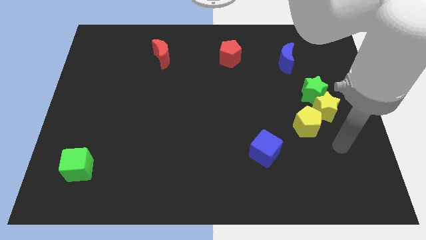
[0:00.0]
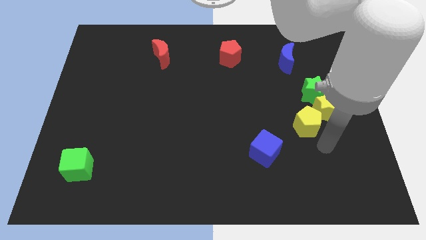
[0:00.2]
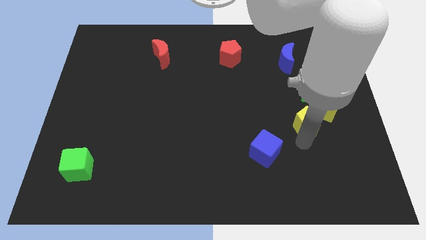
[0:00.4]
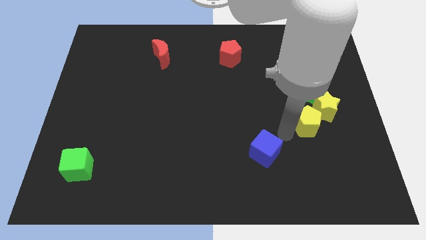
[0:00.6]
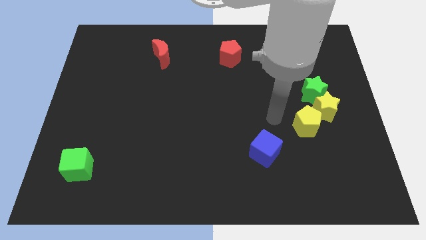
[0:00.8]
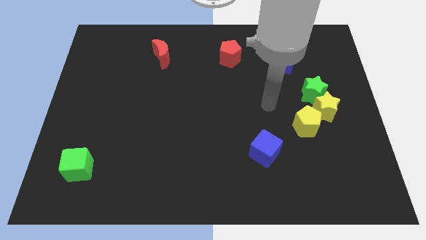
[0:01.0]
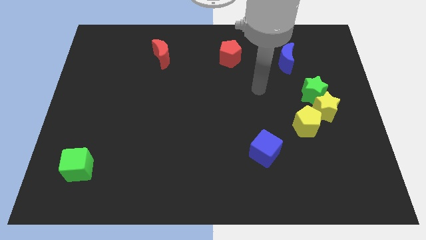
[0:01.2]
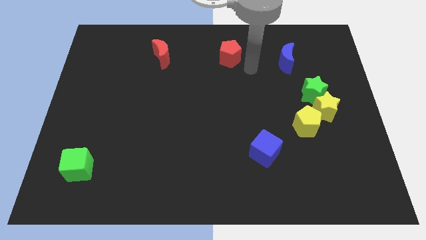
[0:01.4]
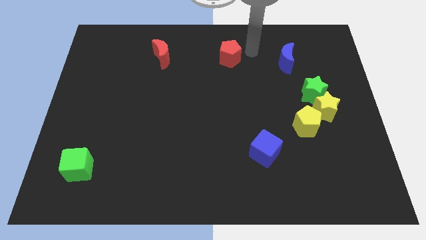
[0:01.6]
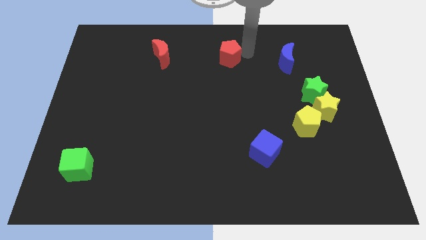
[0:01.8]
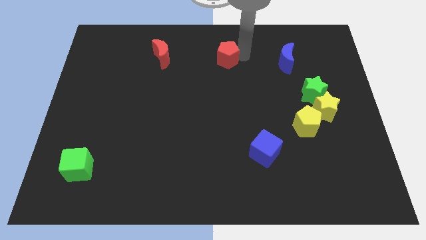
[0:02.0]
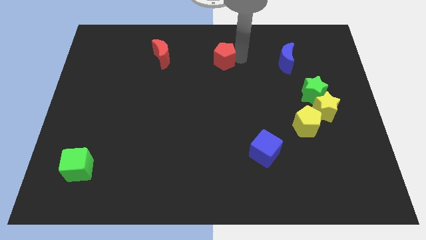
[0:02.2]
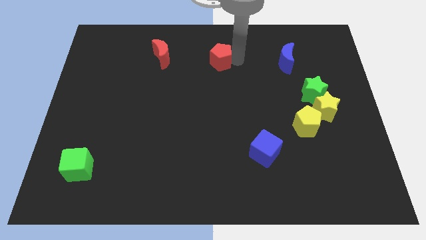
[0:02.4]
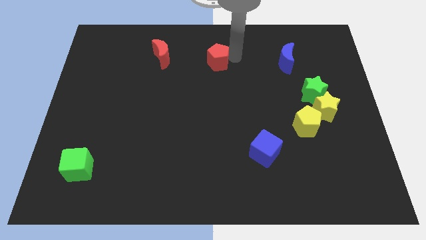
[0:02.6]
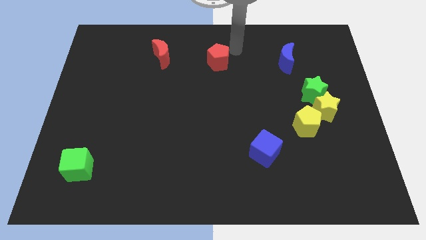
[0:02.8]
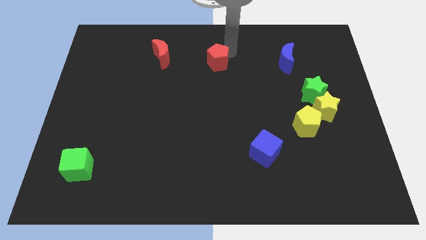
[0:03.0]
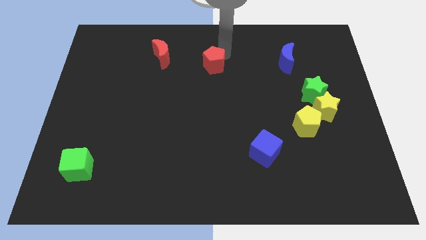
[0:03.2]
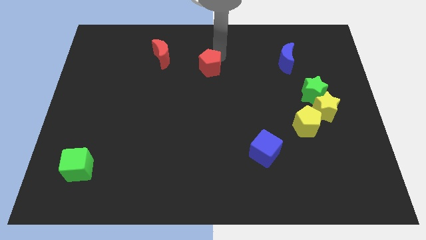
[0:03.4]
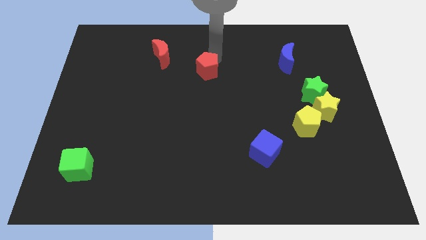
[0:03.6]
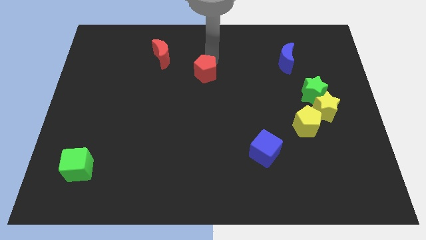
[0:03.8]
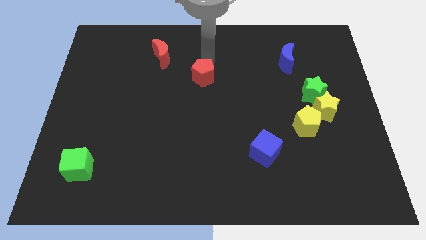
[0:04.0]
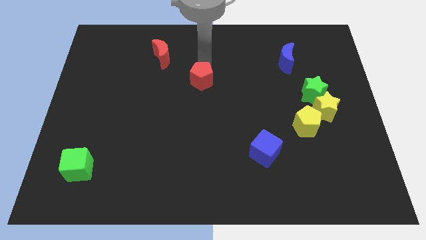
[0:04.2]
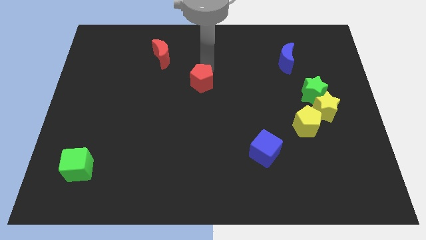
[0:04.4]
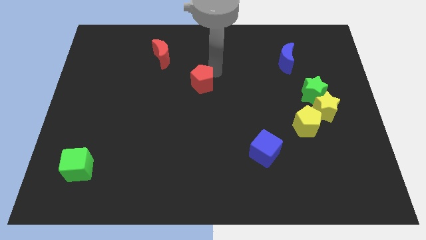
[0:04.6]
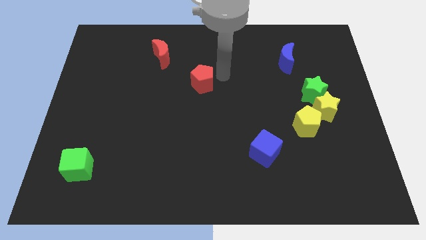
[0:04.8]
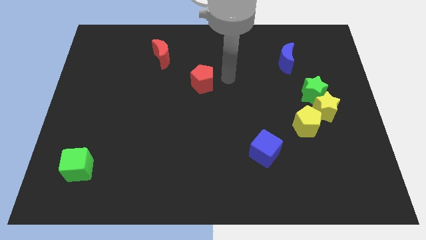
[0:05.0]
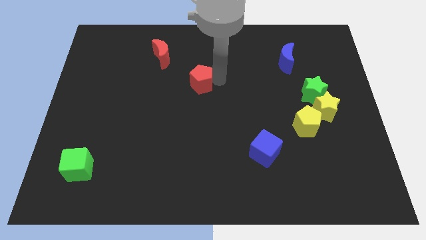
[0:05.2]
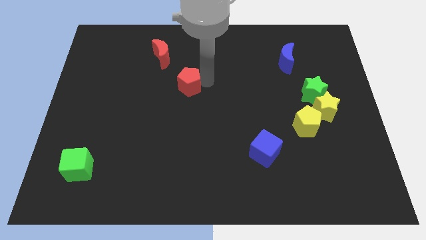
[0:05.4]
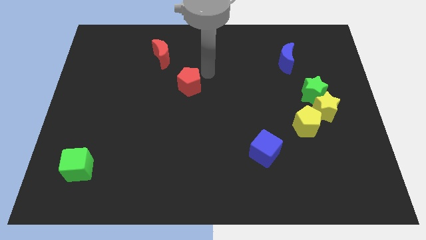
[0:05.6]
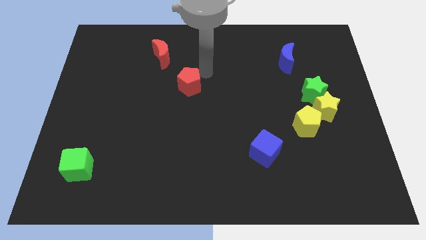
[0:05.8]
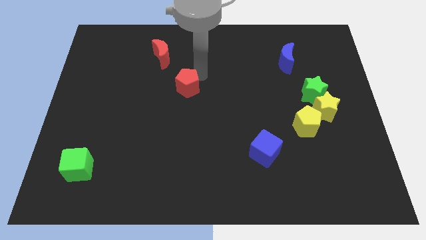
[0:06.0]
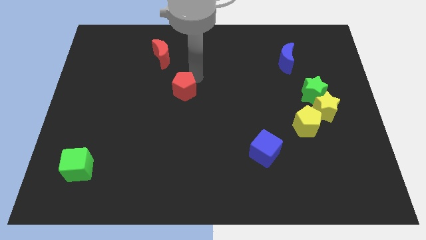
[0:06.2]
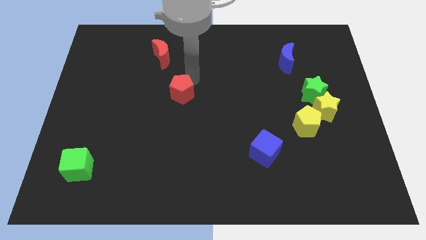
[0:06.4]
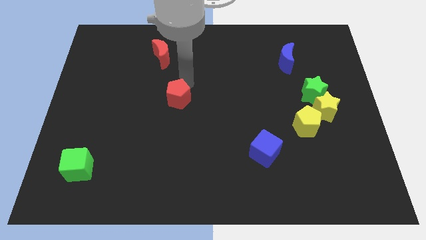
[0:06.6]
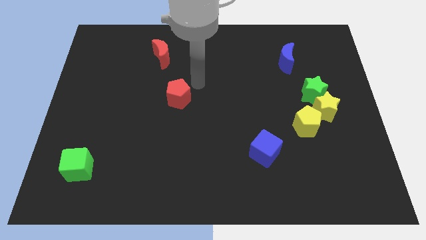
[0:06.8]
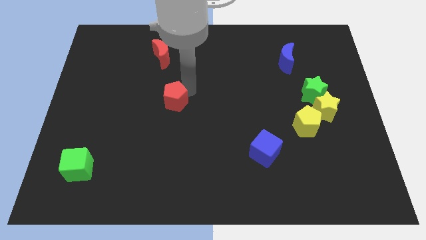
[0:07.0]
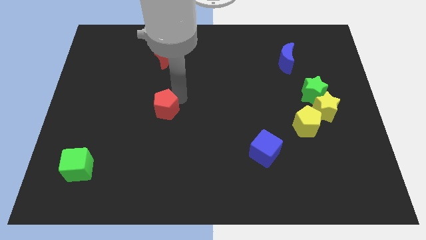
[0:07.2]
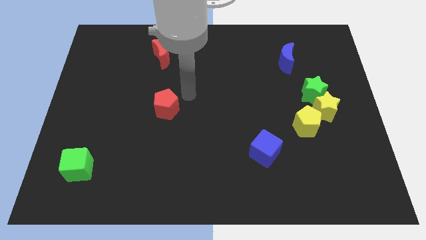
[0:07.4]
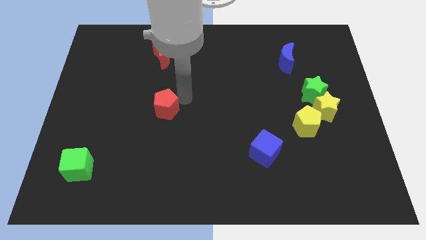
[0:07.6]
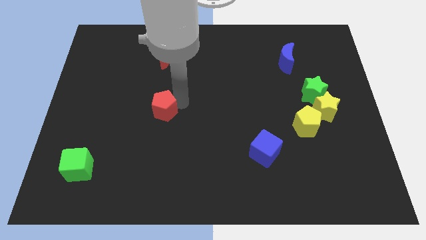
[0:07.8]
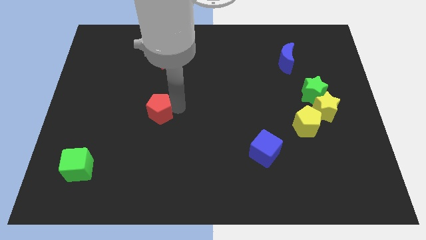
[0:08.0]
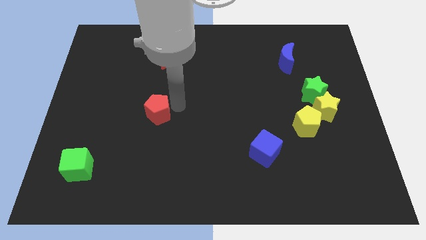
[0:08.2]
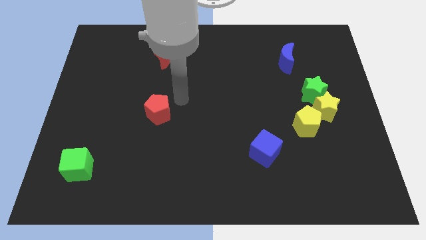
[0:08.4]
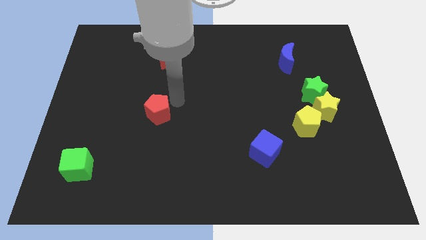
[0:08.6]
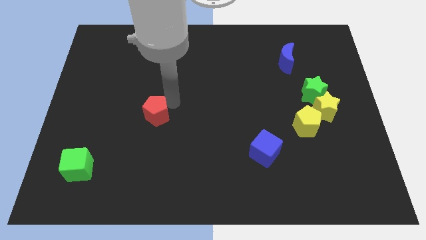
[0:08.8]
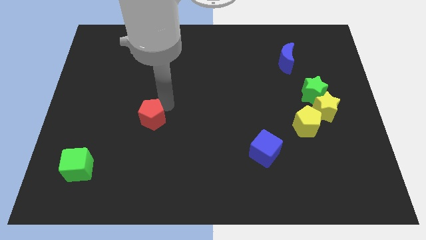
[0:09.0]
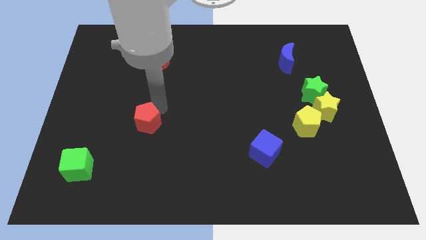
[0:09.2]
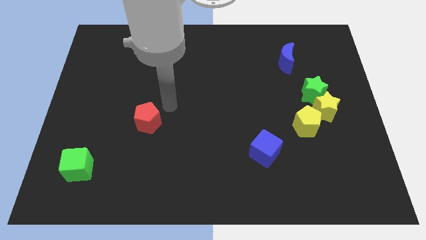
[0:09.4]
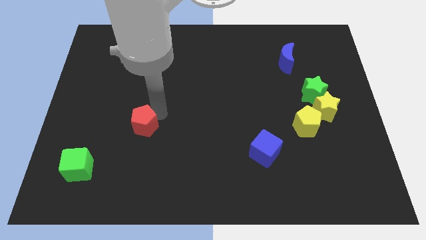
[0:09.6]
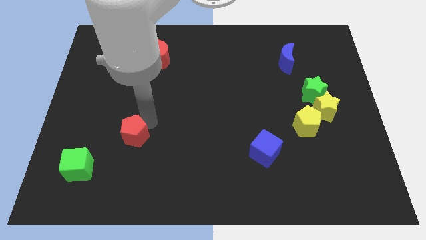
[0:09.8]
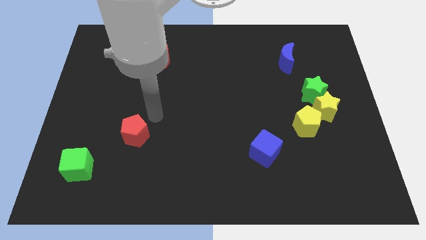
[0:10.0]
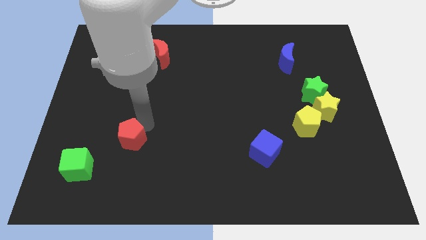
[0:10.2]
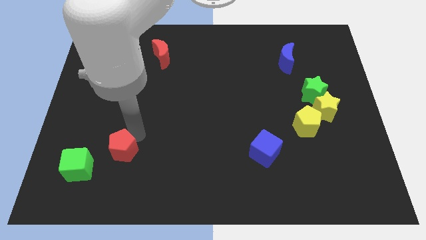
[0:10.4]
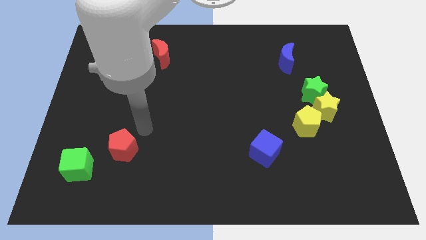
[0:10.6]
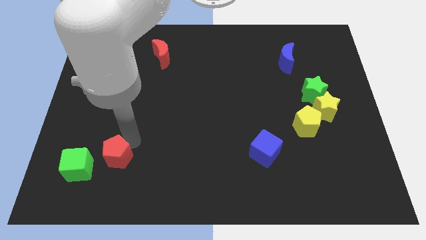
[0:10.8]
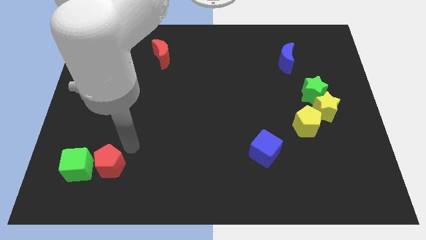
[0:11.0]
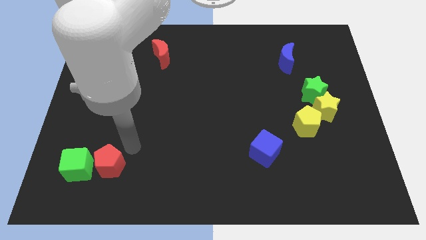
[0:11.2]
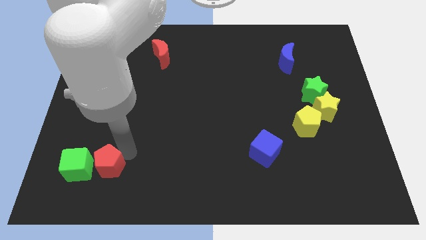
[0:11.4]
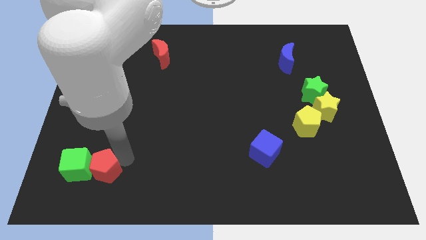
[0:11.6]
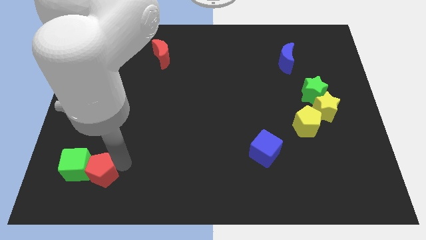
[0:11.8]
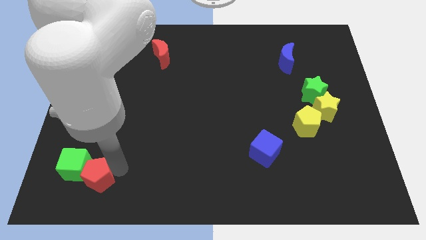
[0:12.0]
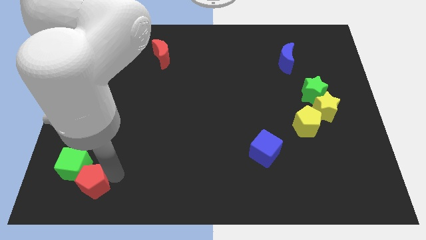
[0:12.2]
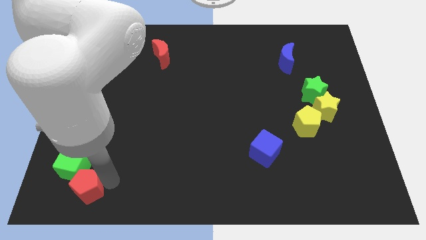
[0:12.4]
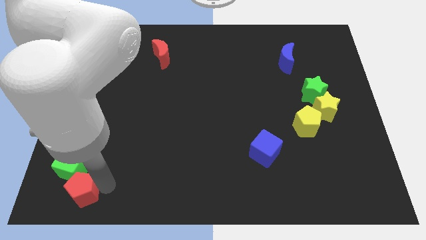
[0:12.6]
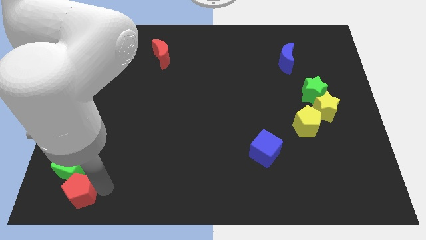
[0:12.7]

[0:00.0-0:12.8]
move the red pentagon to the lower left corner

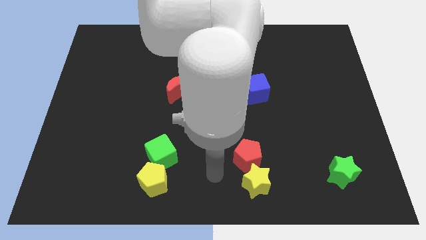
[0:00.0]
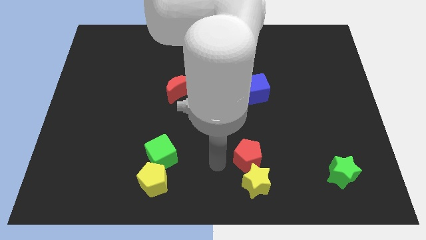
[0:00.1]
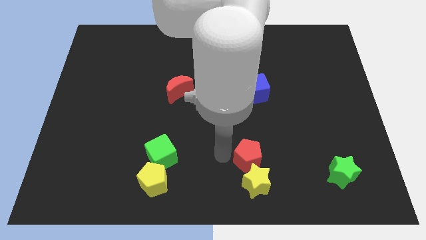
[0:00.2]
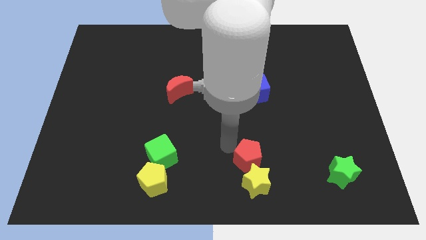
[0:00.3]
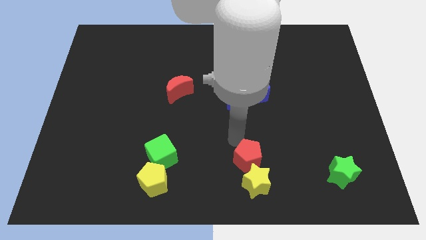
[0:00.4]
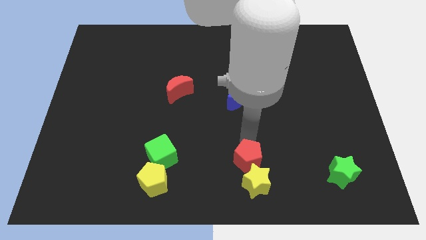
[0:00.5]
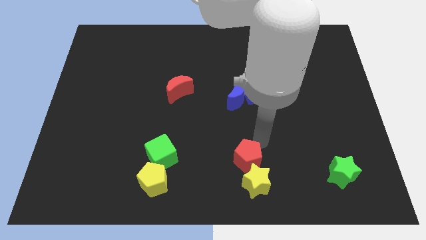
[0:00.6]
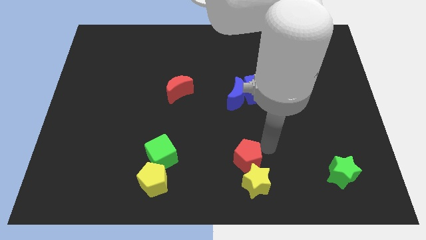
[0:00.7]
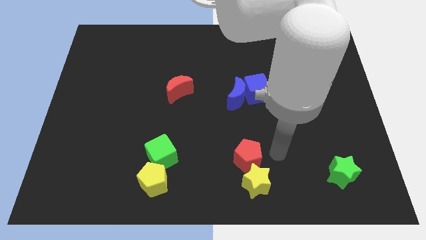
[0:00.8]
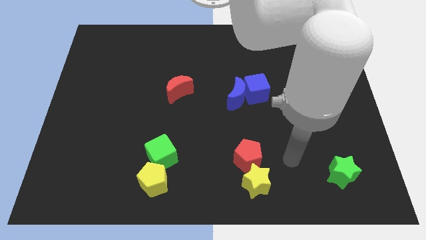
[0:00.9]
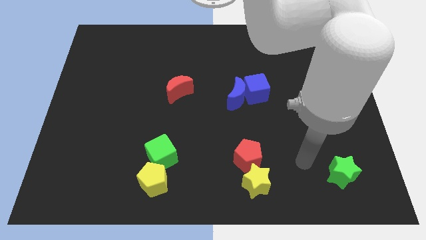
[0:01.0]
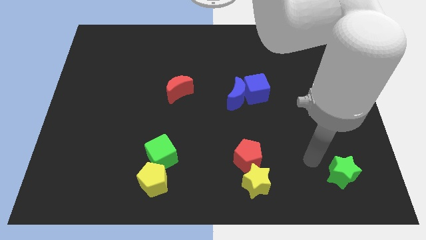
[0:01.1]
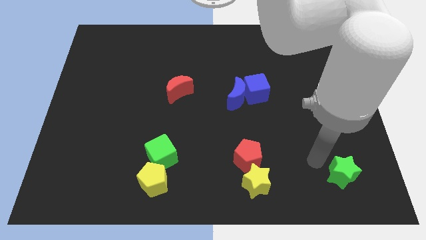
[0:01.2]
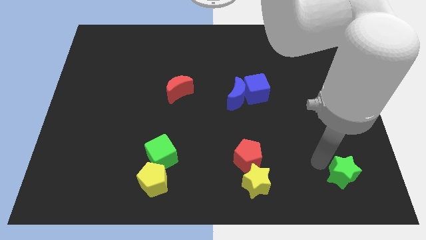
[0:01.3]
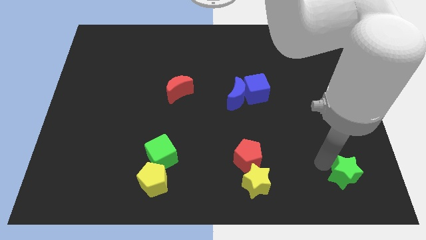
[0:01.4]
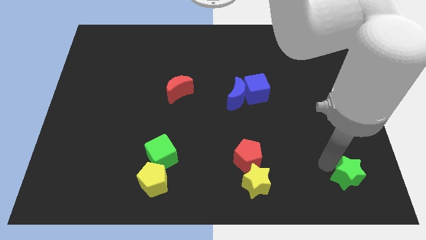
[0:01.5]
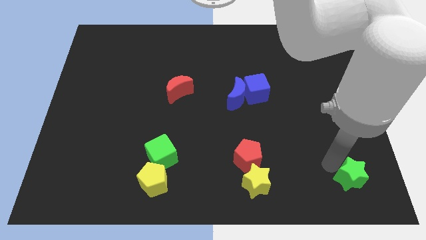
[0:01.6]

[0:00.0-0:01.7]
slide the green star to the lower right corner
